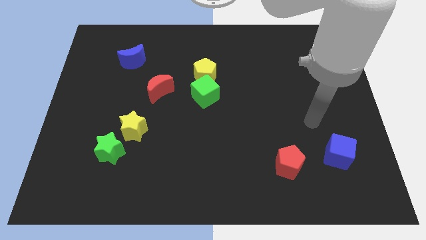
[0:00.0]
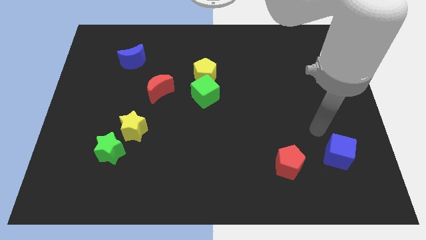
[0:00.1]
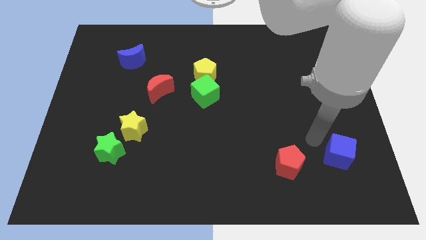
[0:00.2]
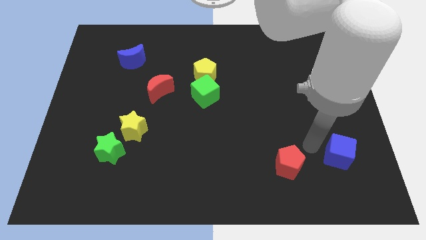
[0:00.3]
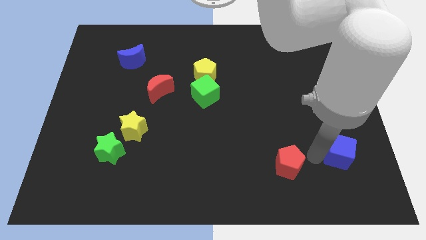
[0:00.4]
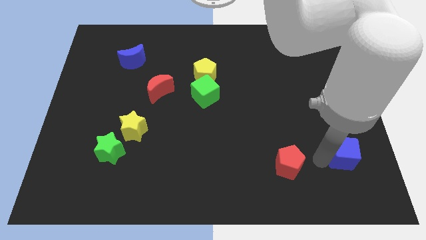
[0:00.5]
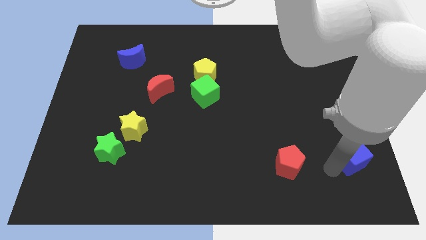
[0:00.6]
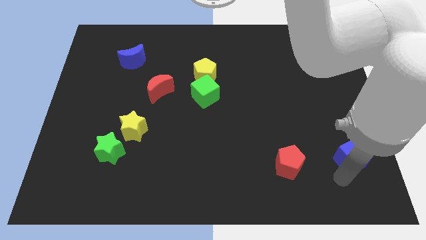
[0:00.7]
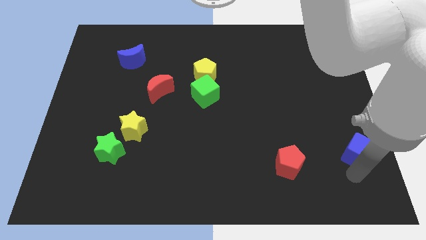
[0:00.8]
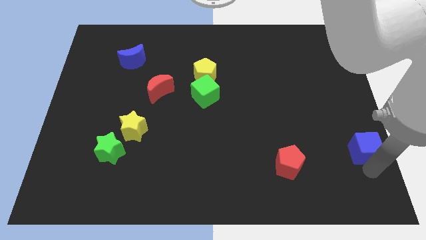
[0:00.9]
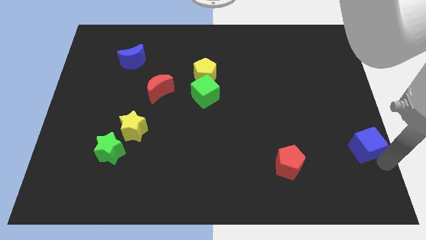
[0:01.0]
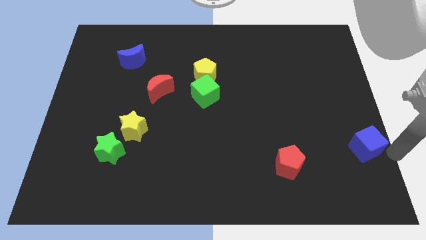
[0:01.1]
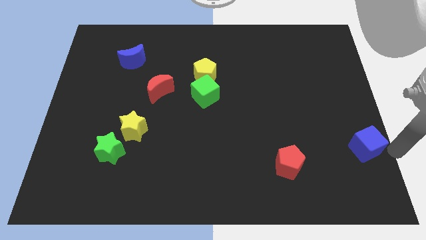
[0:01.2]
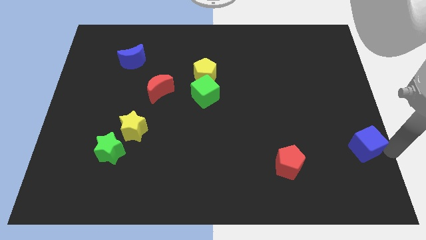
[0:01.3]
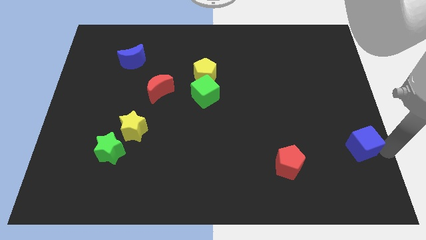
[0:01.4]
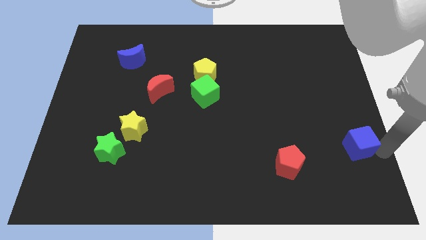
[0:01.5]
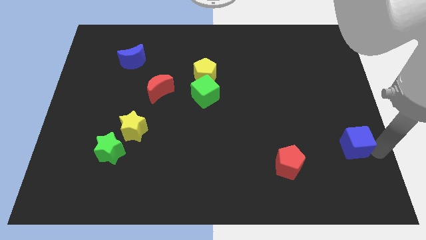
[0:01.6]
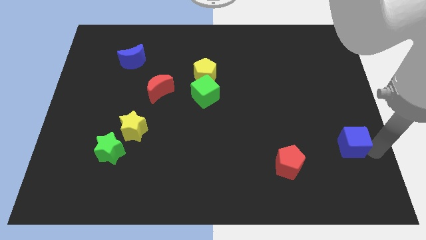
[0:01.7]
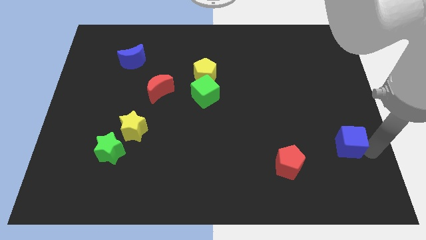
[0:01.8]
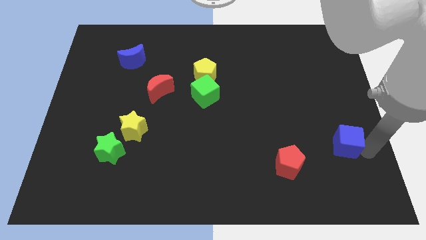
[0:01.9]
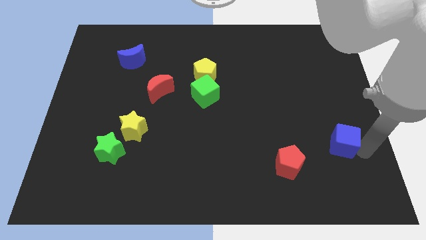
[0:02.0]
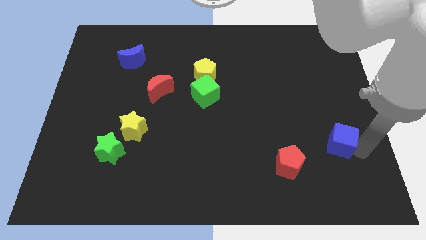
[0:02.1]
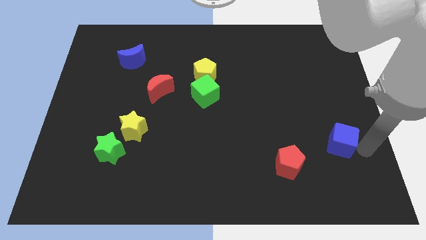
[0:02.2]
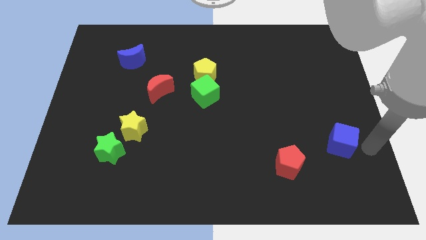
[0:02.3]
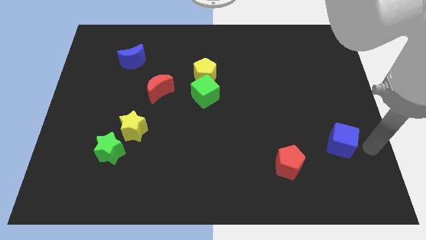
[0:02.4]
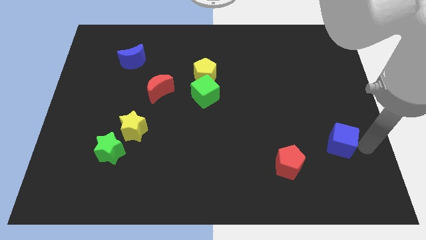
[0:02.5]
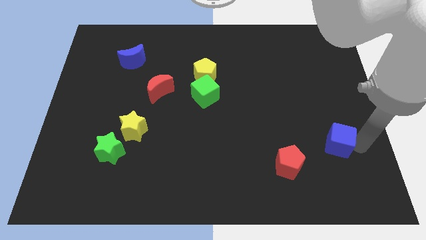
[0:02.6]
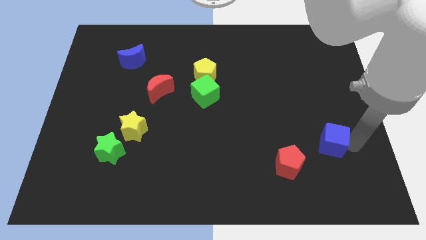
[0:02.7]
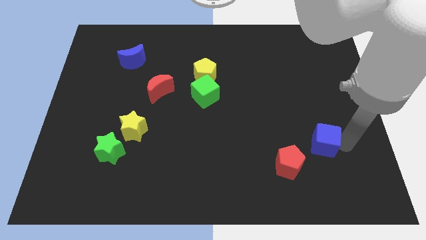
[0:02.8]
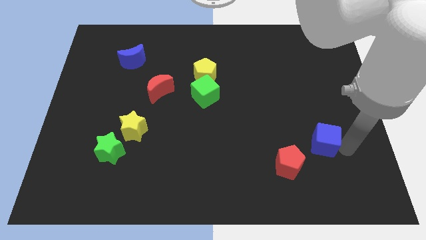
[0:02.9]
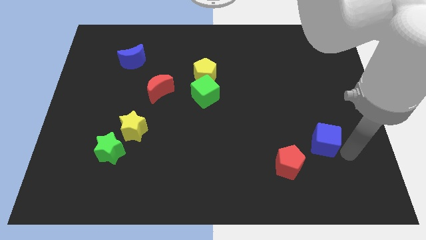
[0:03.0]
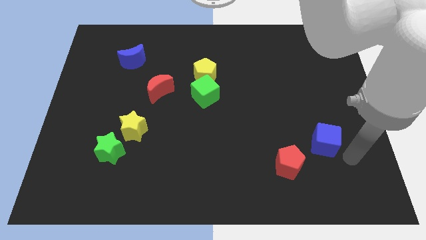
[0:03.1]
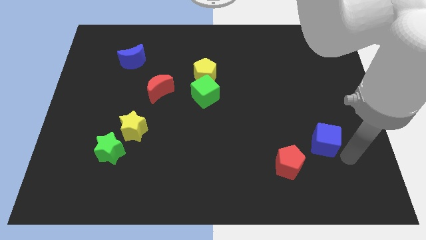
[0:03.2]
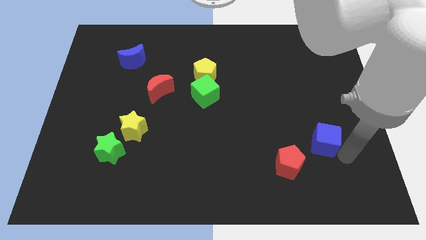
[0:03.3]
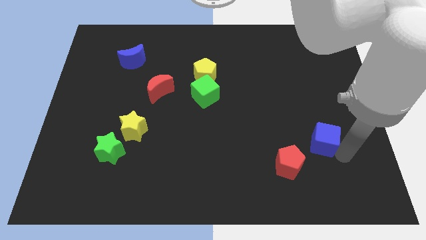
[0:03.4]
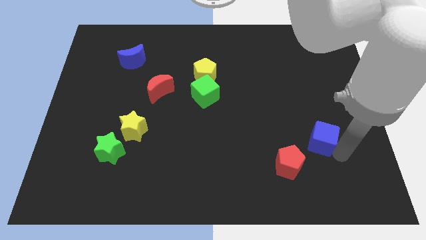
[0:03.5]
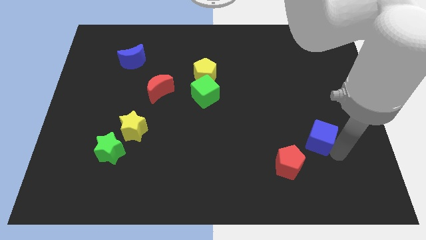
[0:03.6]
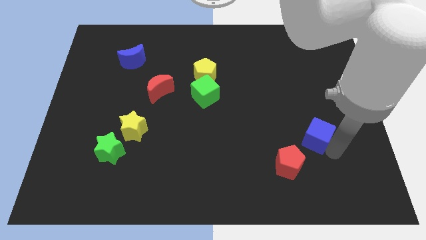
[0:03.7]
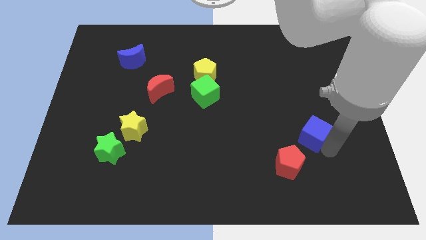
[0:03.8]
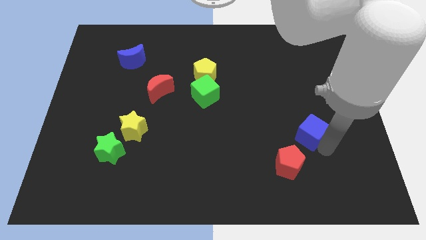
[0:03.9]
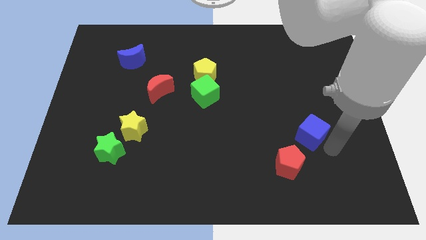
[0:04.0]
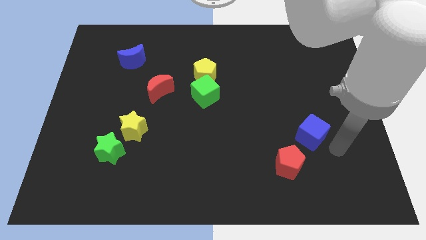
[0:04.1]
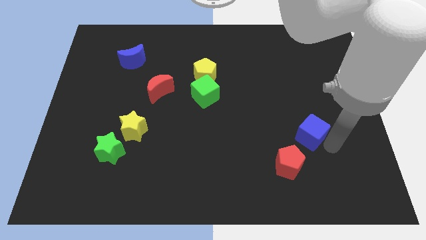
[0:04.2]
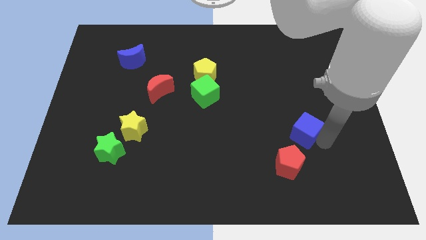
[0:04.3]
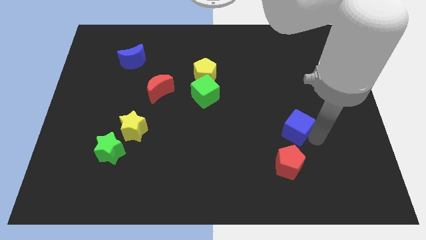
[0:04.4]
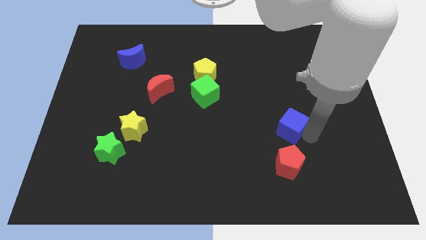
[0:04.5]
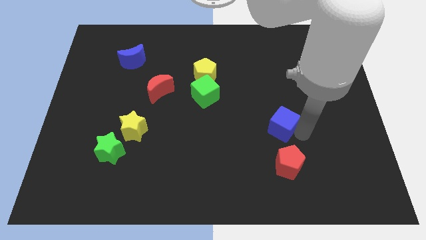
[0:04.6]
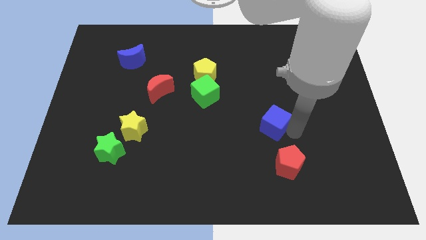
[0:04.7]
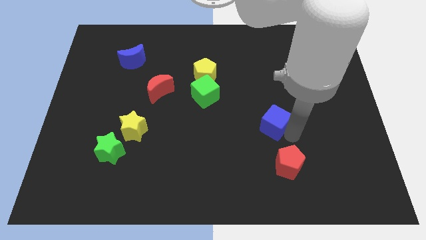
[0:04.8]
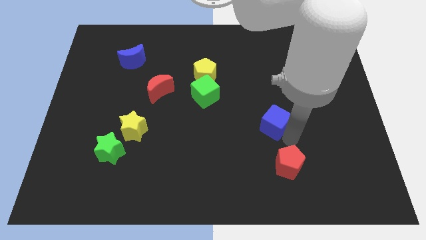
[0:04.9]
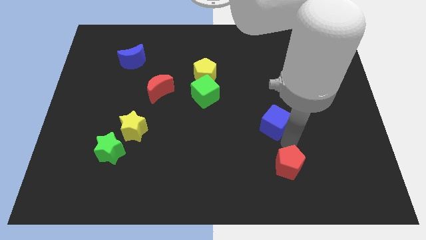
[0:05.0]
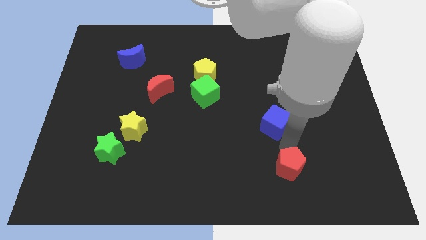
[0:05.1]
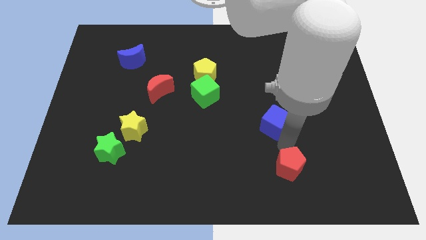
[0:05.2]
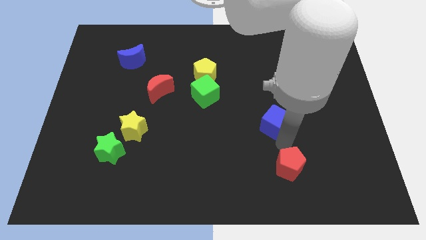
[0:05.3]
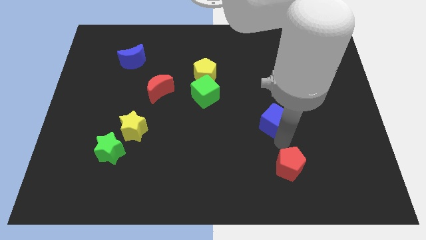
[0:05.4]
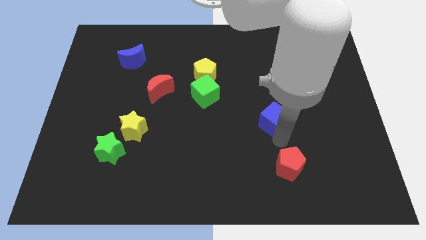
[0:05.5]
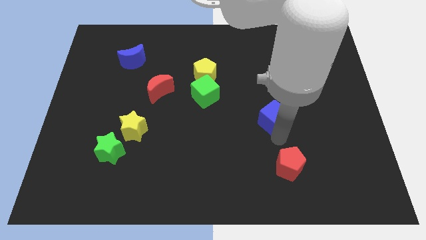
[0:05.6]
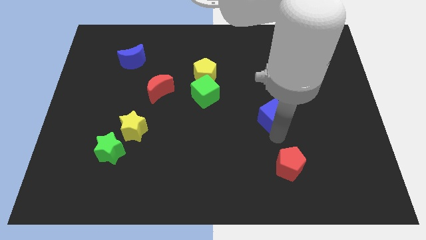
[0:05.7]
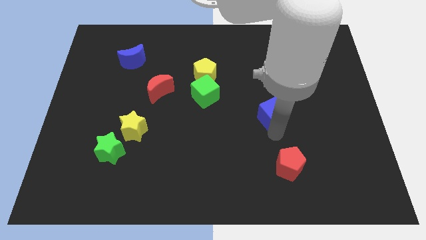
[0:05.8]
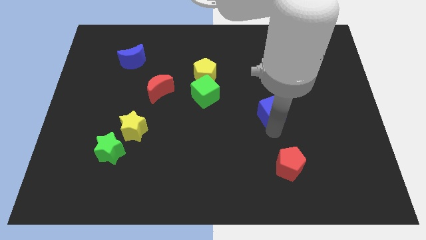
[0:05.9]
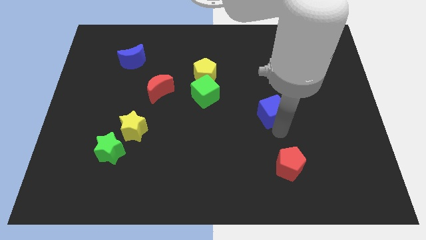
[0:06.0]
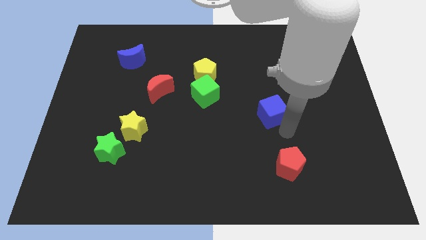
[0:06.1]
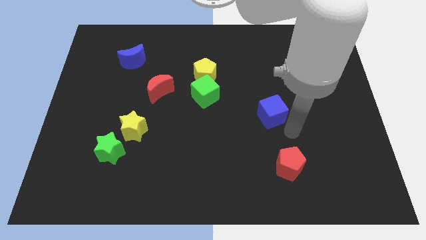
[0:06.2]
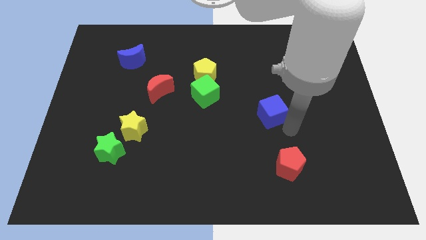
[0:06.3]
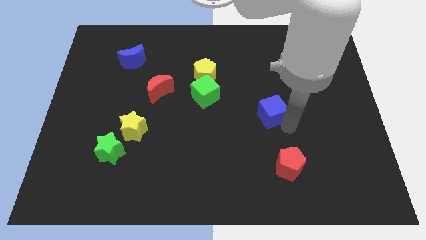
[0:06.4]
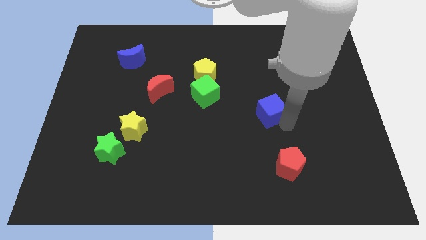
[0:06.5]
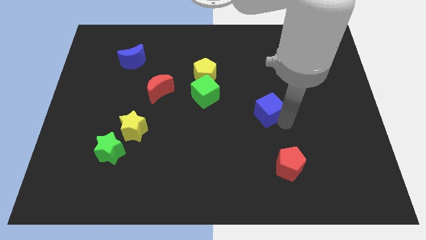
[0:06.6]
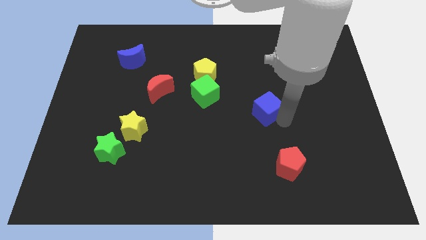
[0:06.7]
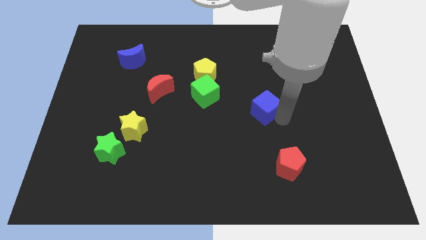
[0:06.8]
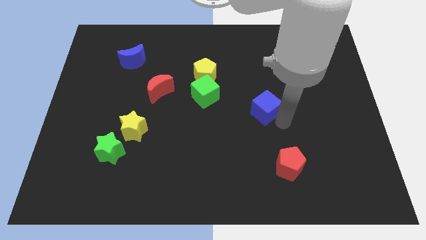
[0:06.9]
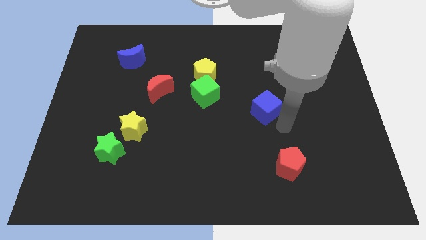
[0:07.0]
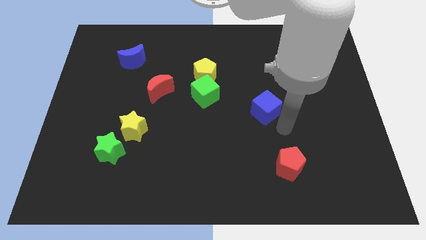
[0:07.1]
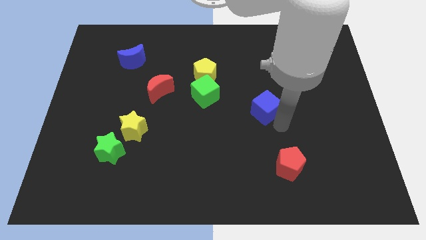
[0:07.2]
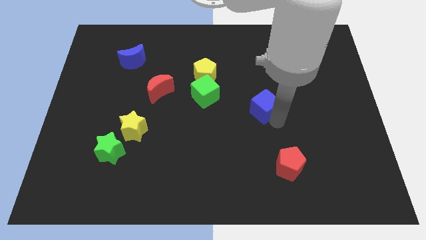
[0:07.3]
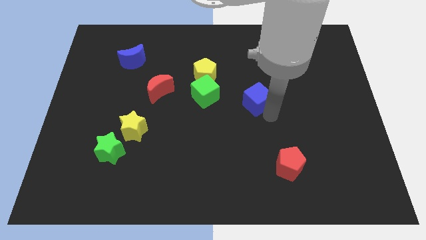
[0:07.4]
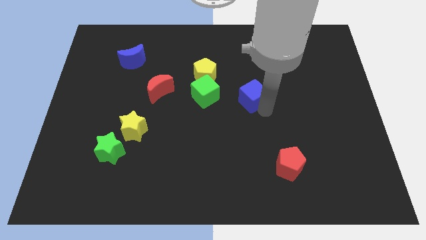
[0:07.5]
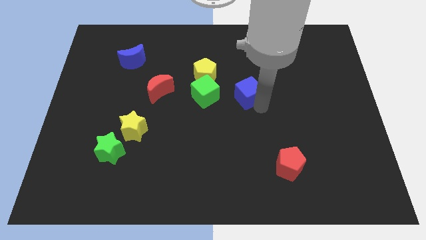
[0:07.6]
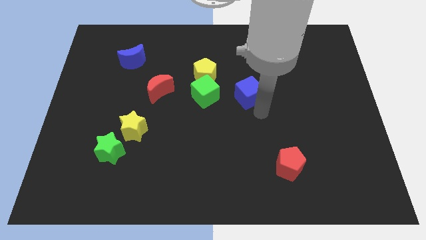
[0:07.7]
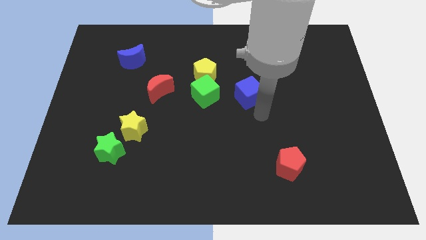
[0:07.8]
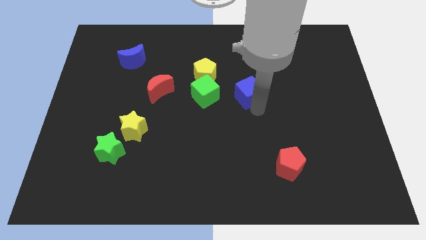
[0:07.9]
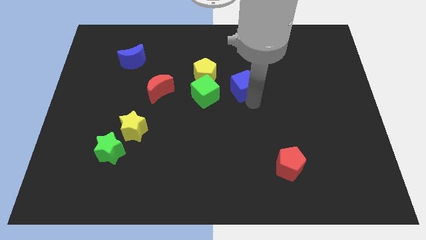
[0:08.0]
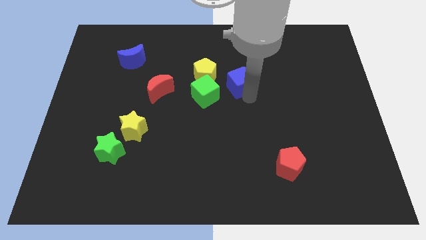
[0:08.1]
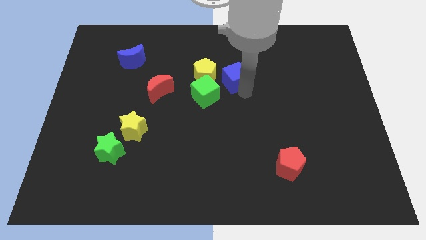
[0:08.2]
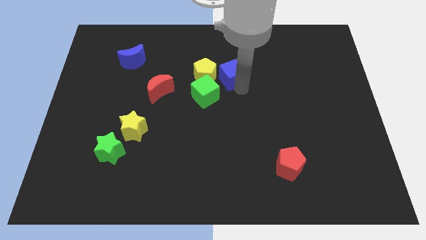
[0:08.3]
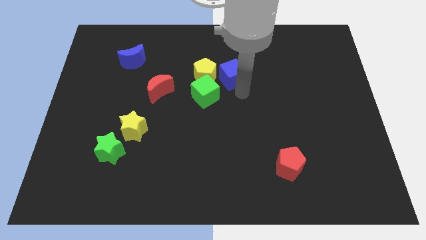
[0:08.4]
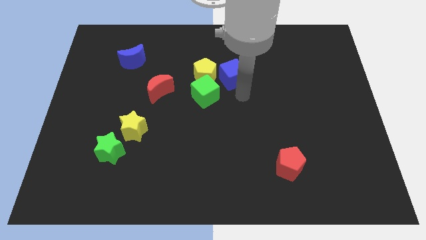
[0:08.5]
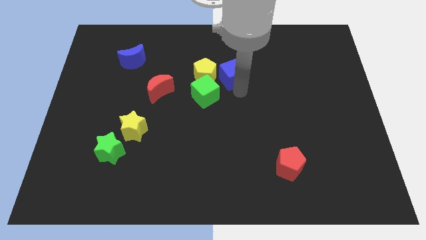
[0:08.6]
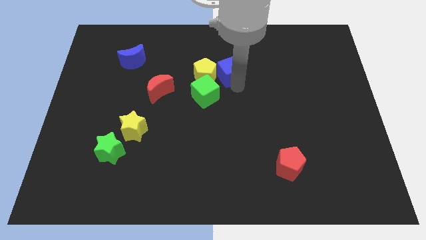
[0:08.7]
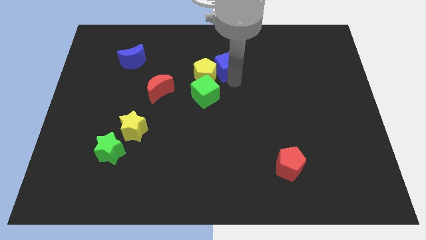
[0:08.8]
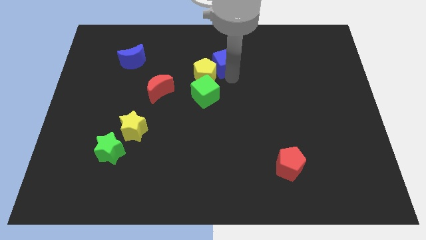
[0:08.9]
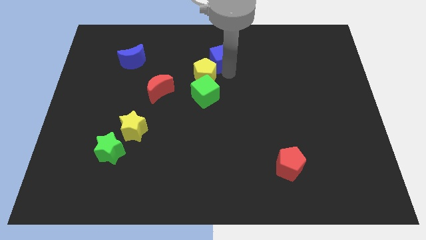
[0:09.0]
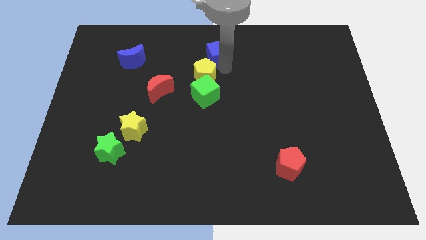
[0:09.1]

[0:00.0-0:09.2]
slide the blue cube to the top
